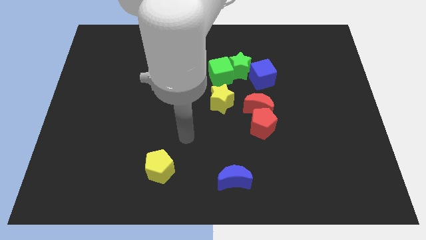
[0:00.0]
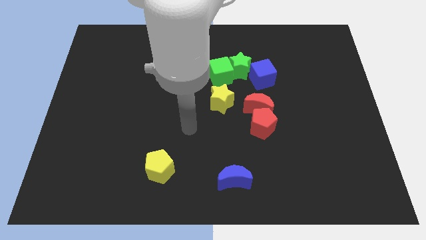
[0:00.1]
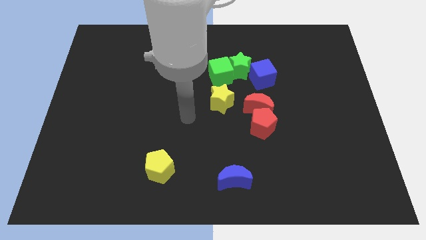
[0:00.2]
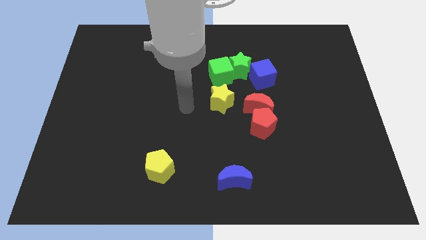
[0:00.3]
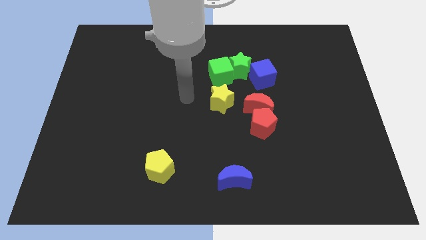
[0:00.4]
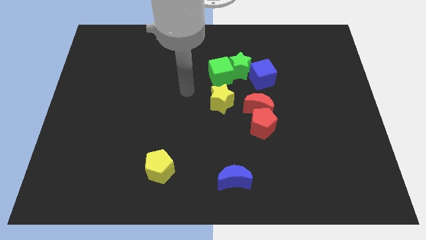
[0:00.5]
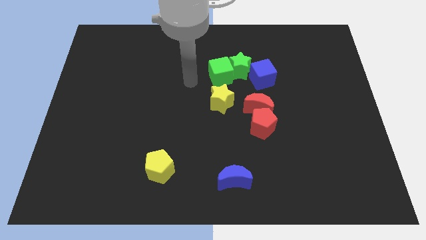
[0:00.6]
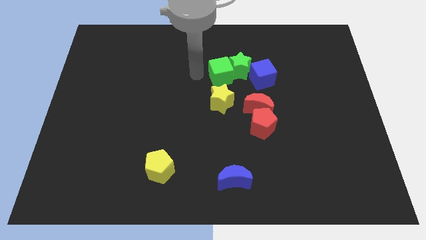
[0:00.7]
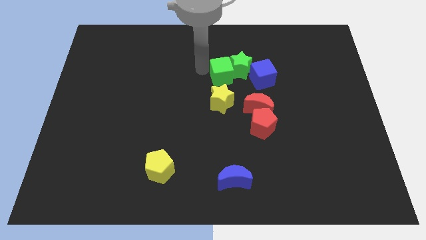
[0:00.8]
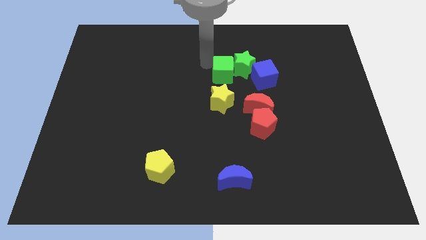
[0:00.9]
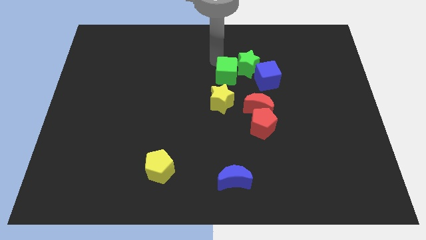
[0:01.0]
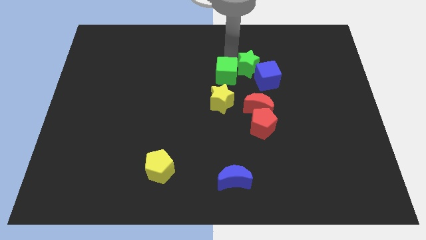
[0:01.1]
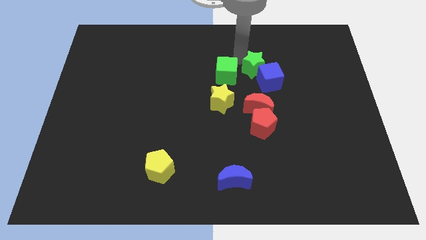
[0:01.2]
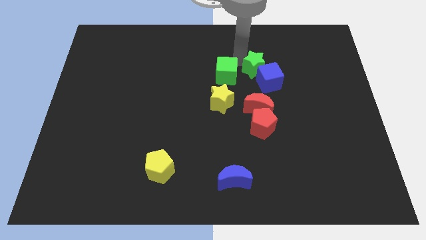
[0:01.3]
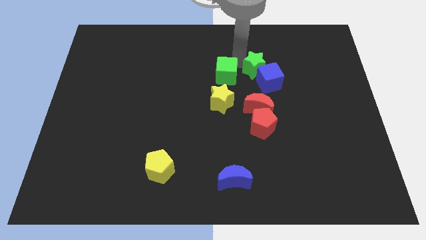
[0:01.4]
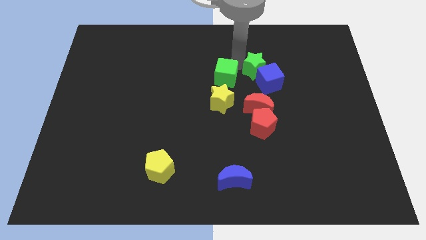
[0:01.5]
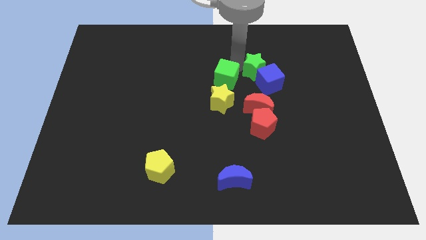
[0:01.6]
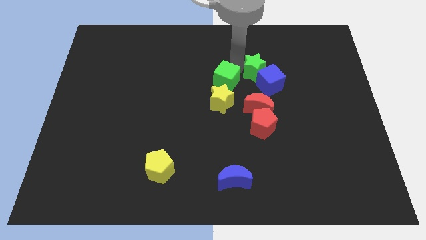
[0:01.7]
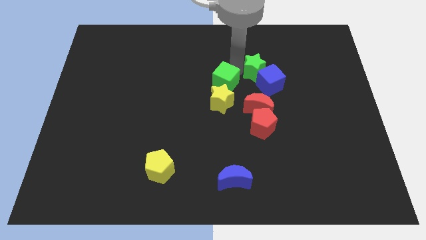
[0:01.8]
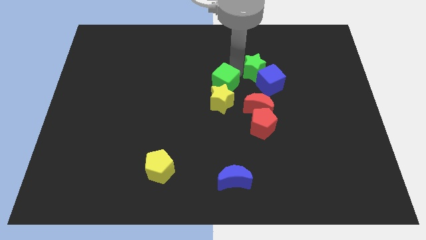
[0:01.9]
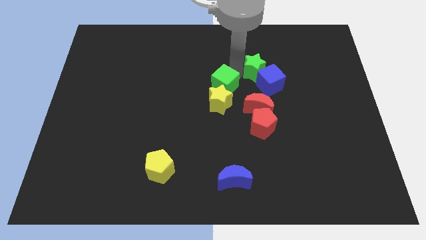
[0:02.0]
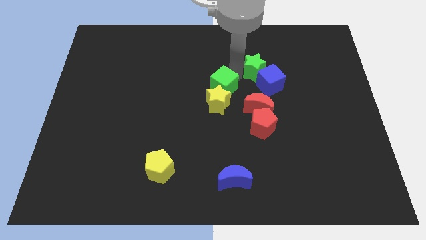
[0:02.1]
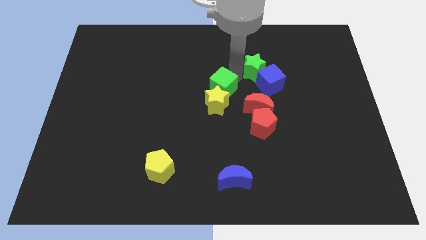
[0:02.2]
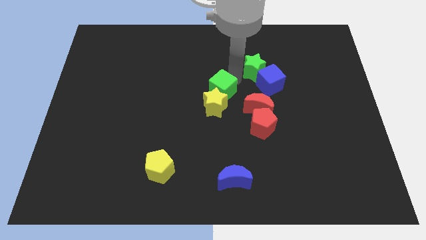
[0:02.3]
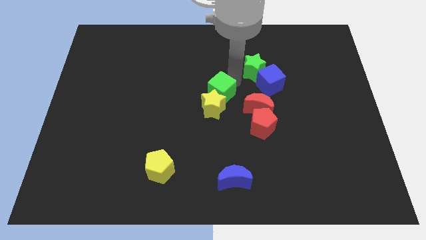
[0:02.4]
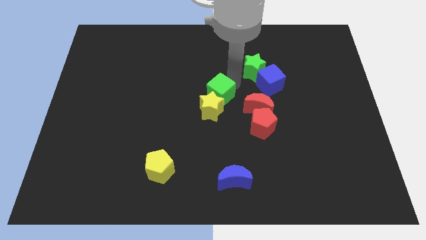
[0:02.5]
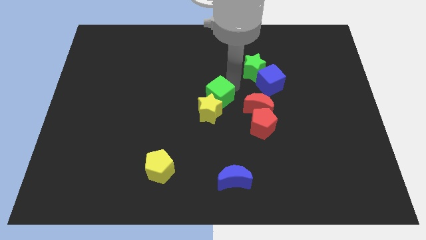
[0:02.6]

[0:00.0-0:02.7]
push the green cube downwards a little

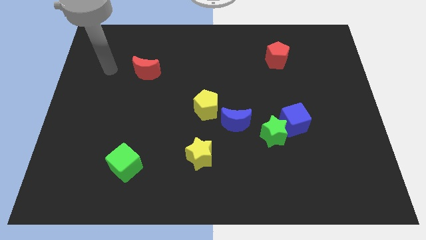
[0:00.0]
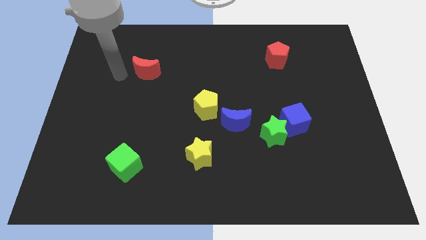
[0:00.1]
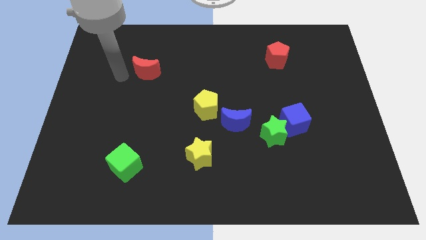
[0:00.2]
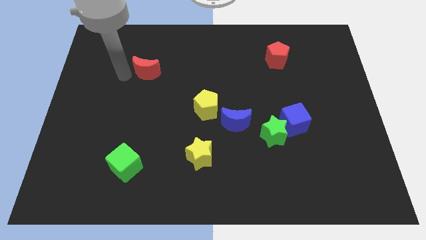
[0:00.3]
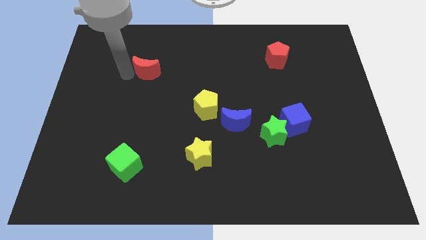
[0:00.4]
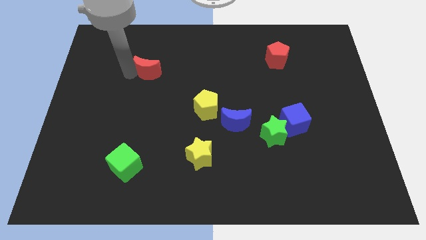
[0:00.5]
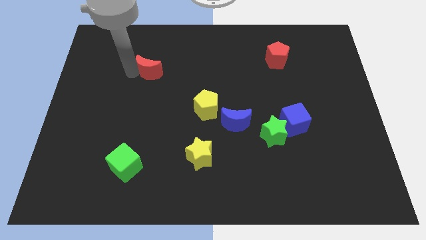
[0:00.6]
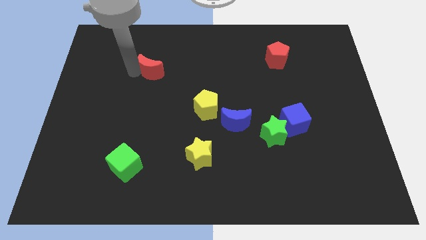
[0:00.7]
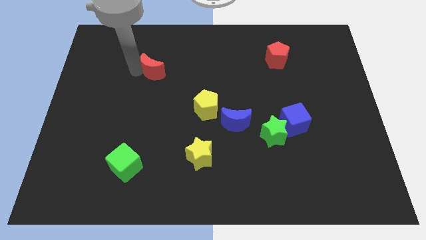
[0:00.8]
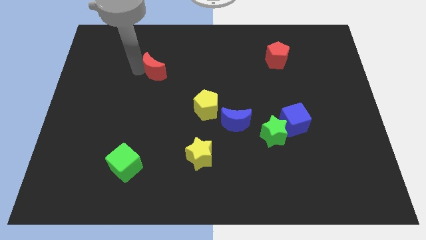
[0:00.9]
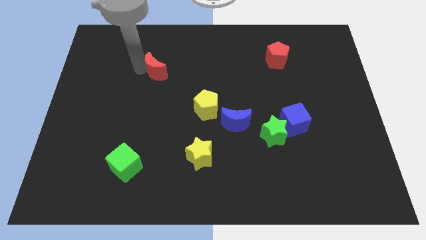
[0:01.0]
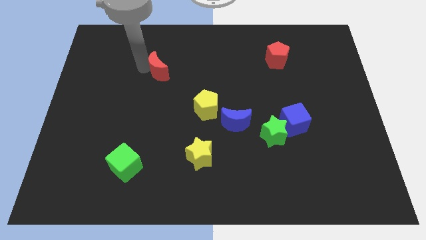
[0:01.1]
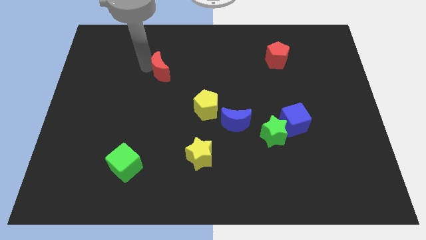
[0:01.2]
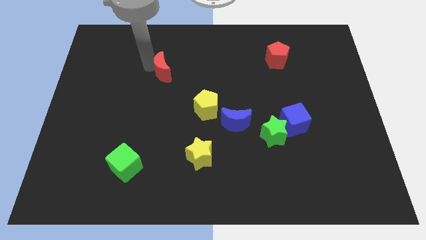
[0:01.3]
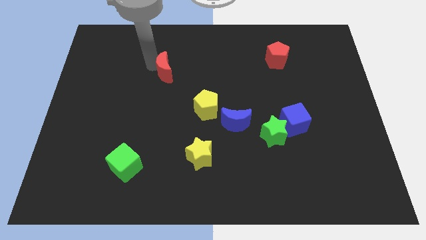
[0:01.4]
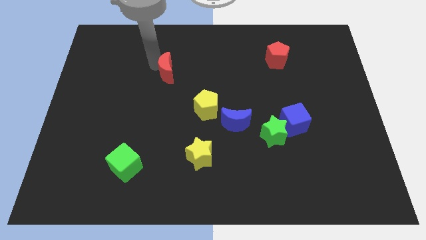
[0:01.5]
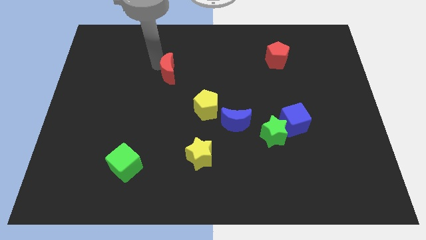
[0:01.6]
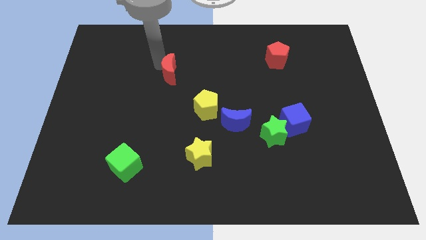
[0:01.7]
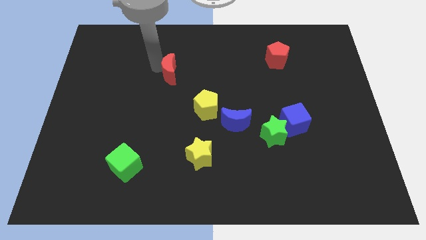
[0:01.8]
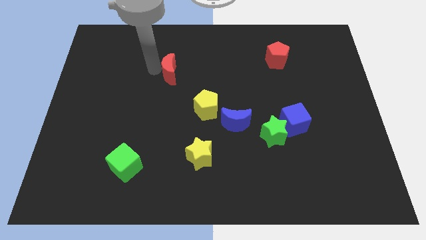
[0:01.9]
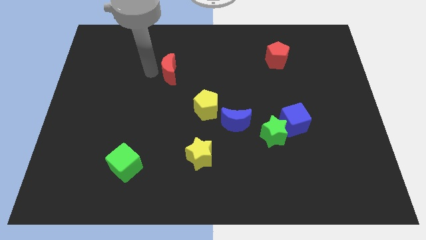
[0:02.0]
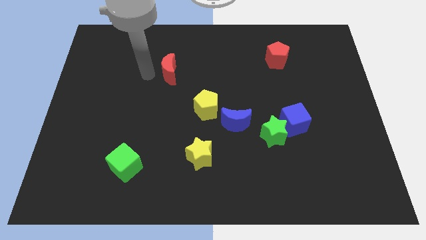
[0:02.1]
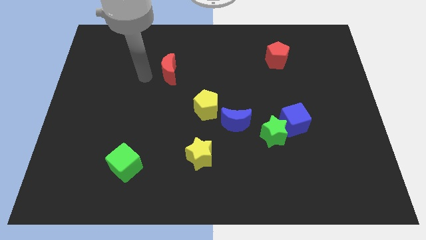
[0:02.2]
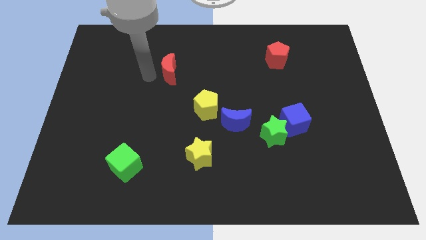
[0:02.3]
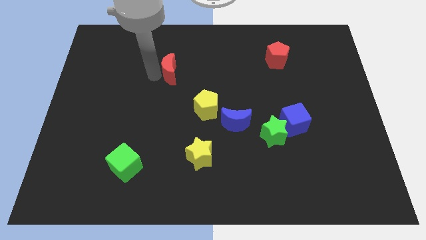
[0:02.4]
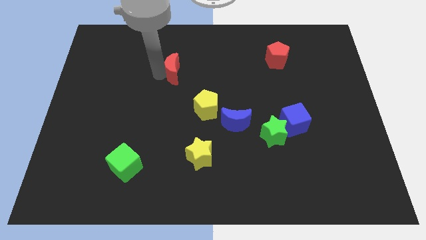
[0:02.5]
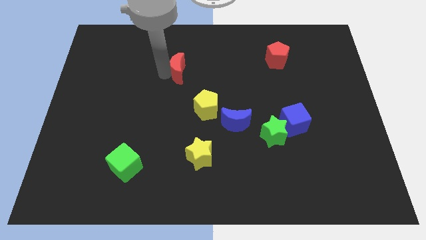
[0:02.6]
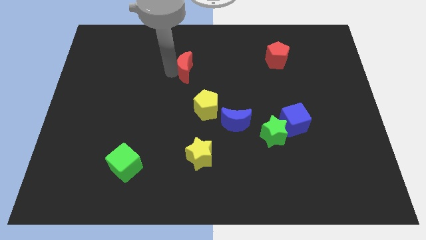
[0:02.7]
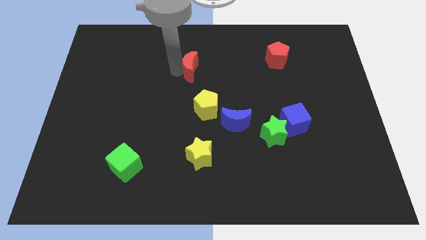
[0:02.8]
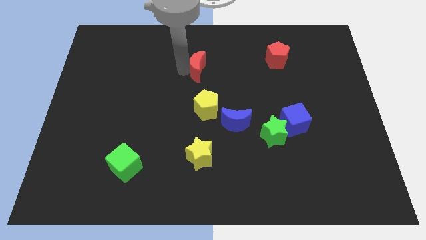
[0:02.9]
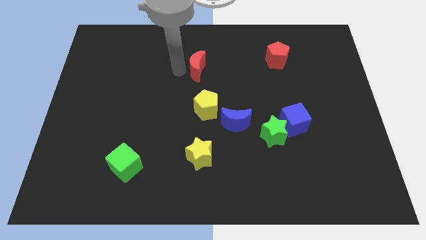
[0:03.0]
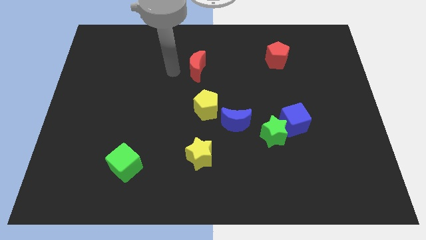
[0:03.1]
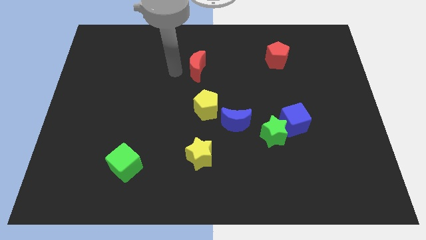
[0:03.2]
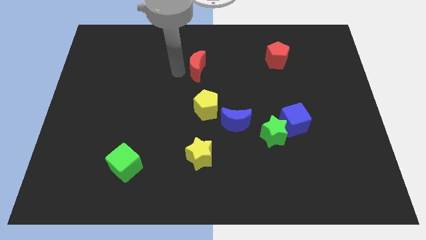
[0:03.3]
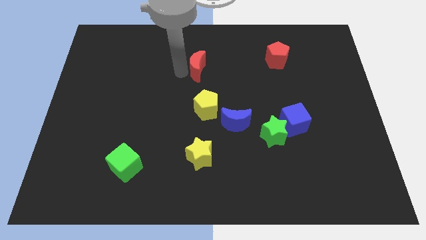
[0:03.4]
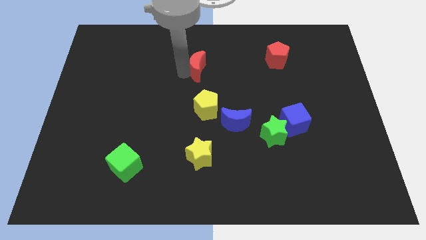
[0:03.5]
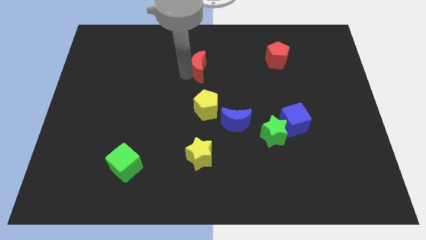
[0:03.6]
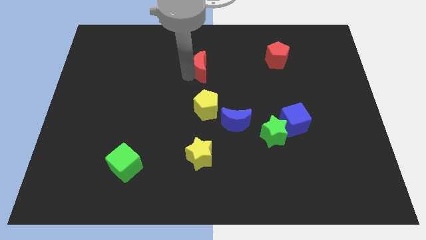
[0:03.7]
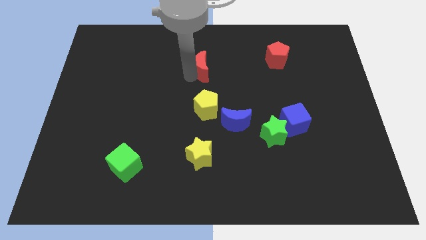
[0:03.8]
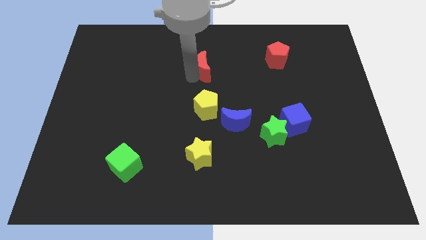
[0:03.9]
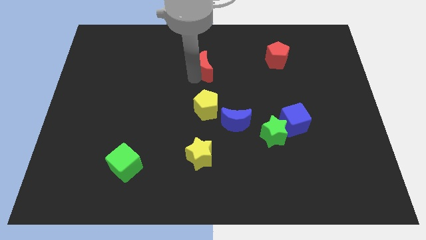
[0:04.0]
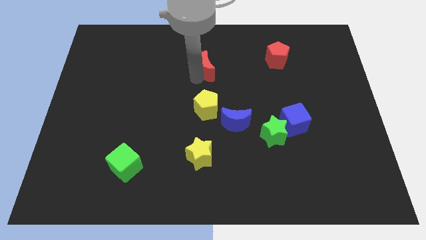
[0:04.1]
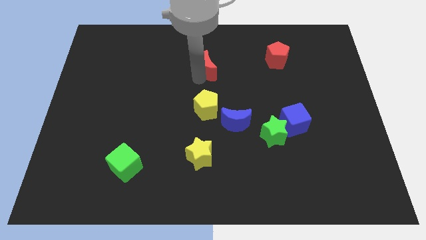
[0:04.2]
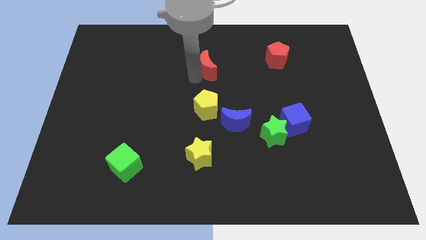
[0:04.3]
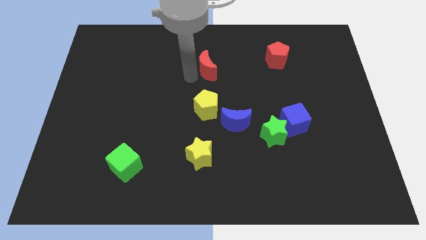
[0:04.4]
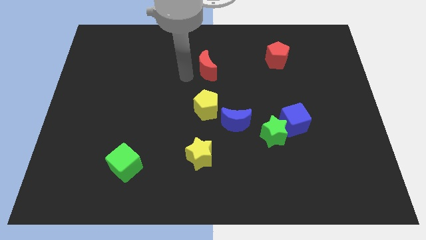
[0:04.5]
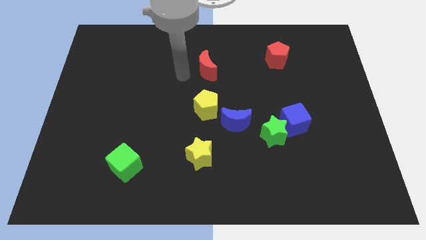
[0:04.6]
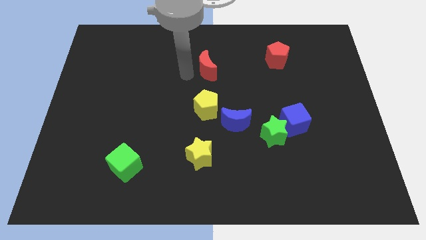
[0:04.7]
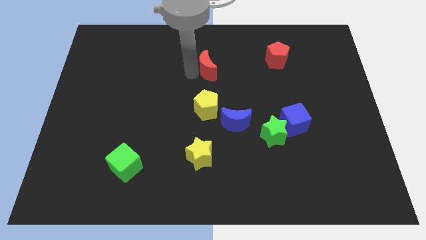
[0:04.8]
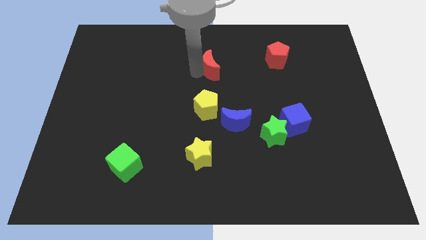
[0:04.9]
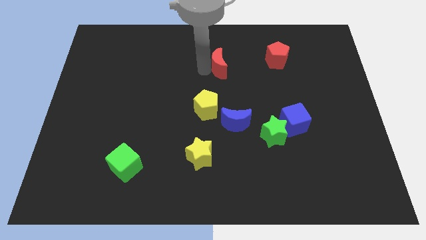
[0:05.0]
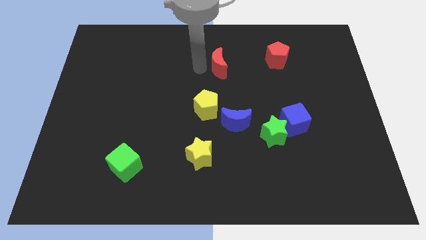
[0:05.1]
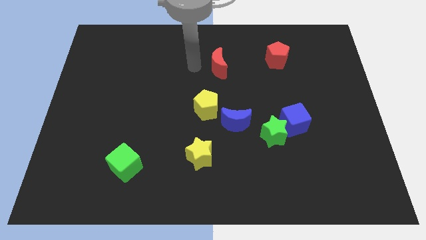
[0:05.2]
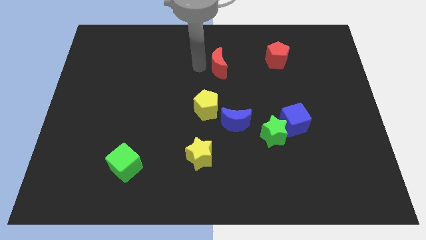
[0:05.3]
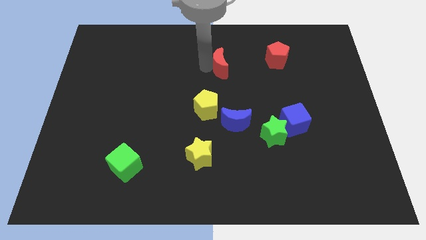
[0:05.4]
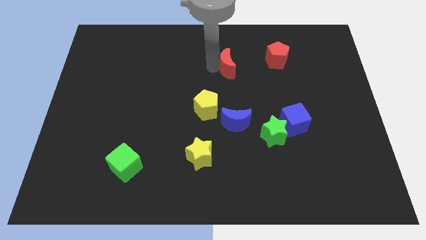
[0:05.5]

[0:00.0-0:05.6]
push the red moon to the right
